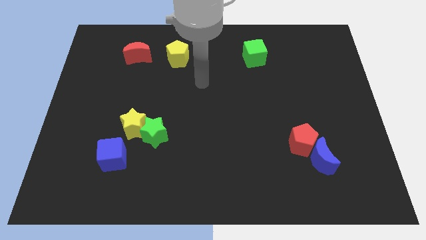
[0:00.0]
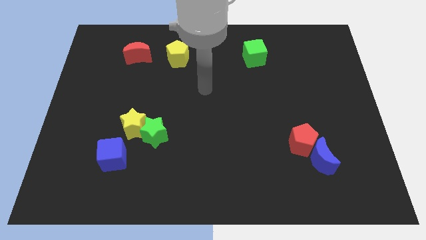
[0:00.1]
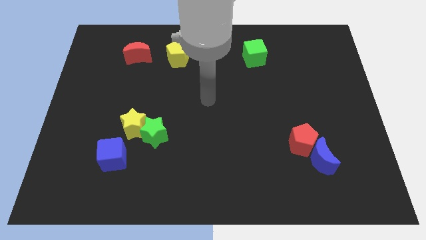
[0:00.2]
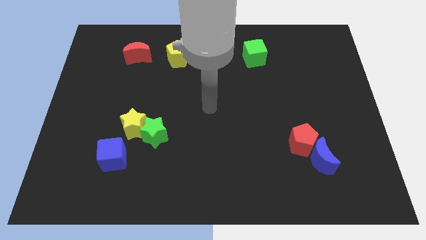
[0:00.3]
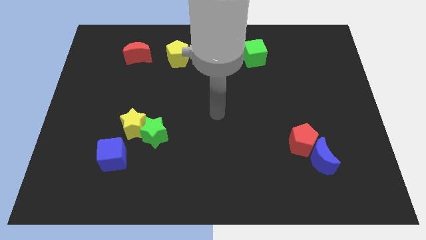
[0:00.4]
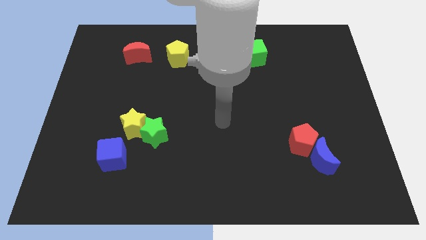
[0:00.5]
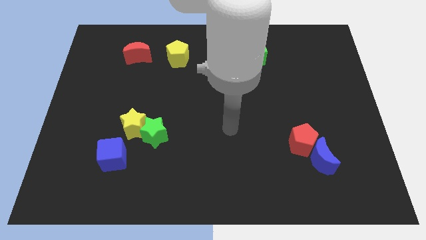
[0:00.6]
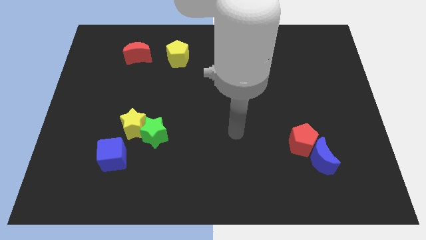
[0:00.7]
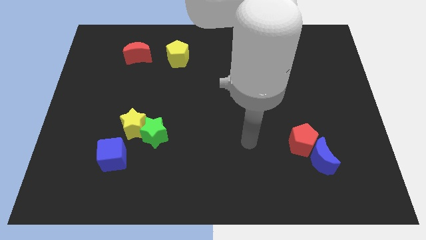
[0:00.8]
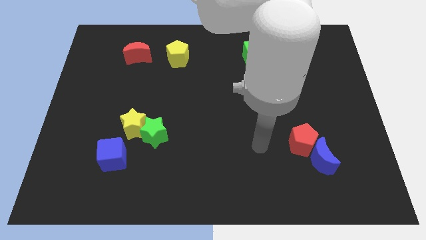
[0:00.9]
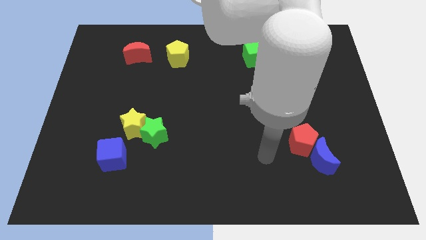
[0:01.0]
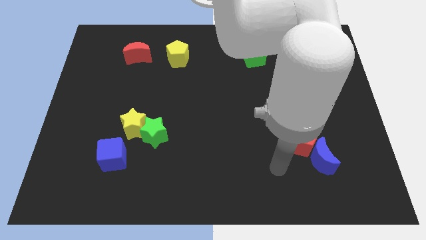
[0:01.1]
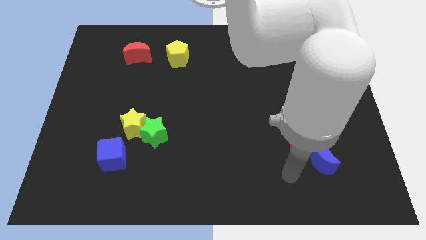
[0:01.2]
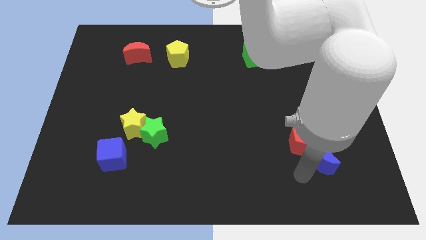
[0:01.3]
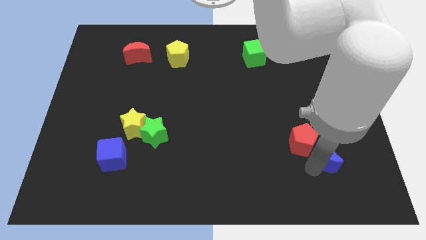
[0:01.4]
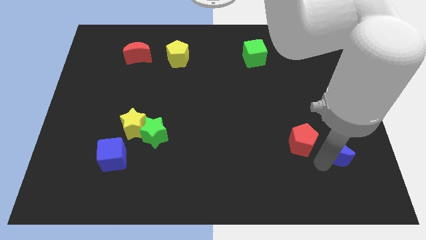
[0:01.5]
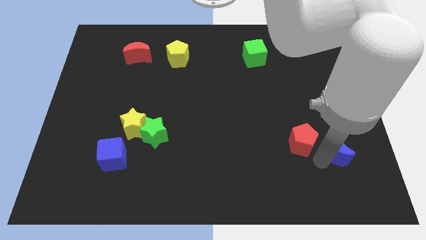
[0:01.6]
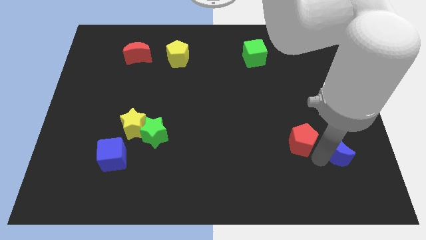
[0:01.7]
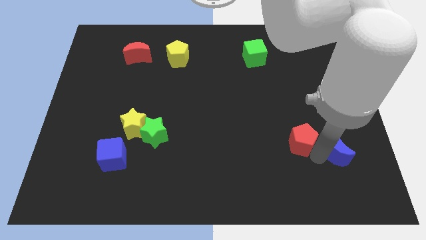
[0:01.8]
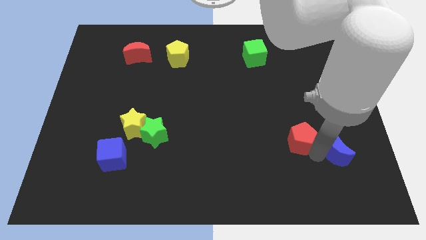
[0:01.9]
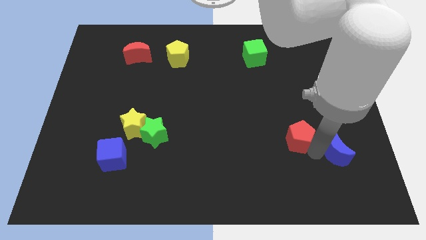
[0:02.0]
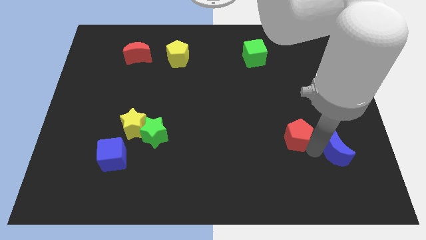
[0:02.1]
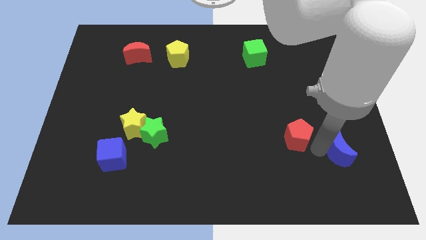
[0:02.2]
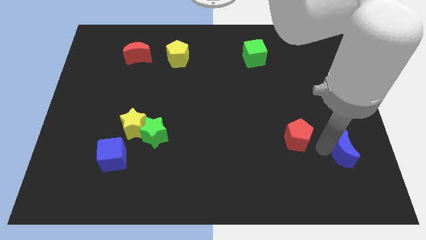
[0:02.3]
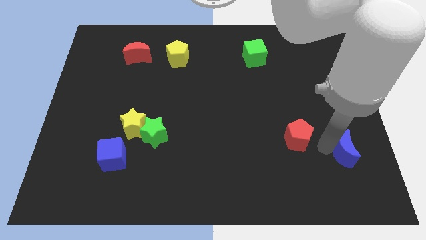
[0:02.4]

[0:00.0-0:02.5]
move the red pentagon away from the blue moon

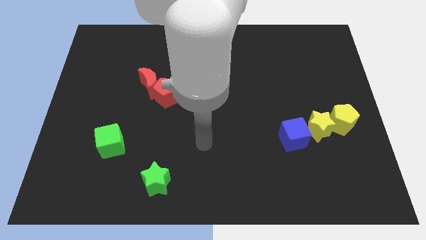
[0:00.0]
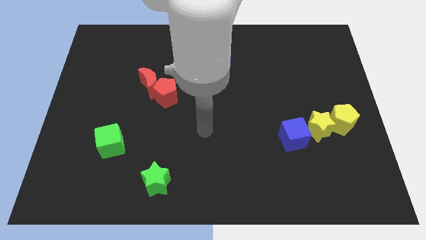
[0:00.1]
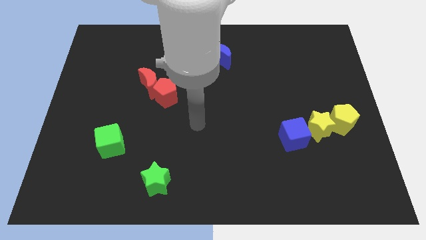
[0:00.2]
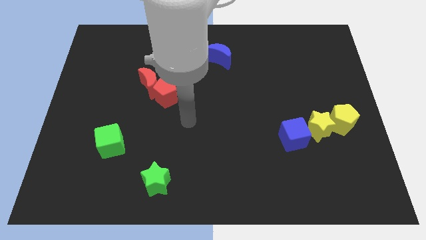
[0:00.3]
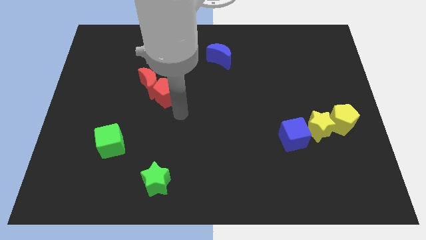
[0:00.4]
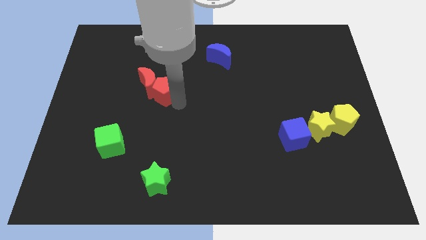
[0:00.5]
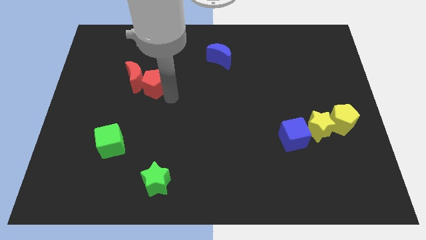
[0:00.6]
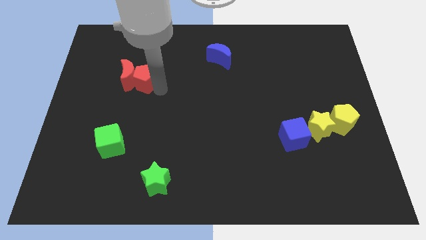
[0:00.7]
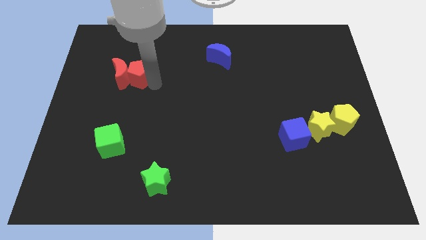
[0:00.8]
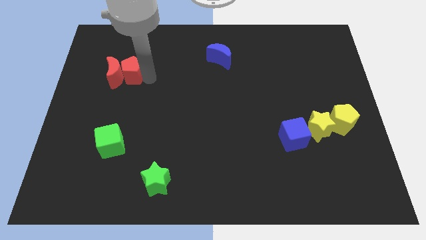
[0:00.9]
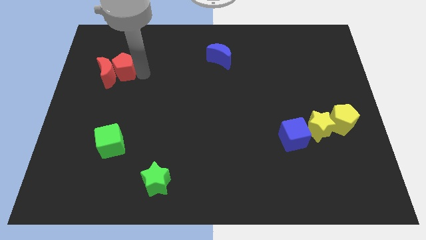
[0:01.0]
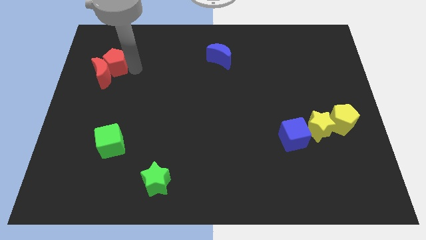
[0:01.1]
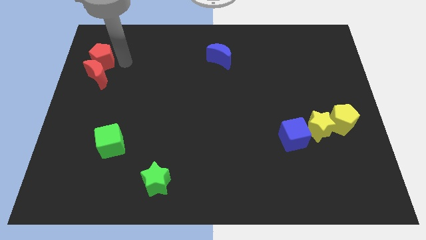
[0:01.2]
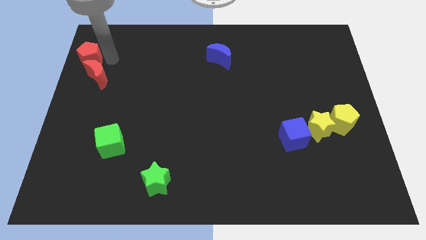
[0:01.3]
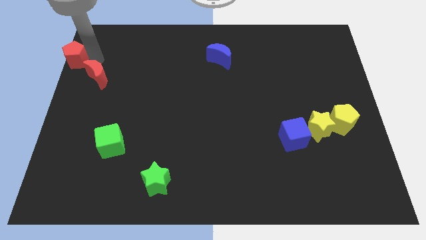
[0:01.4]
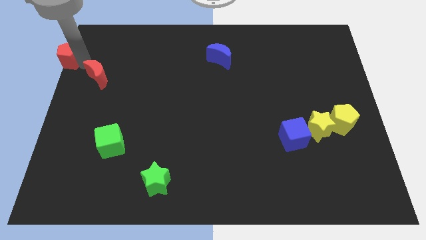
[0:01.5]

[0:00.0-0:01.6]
move the red moon away from the red pentagon

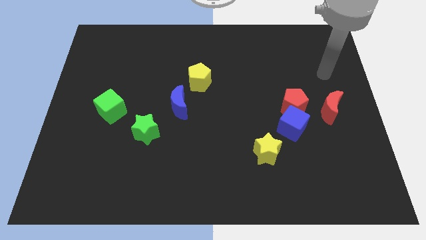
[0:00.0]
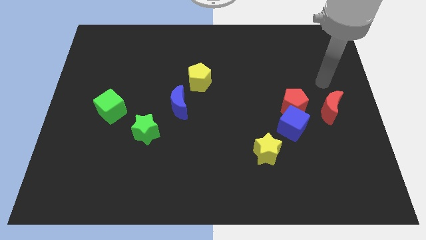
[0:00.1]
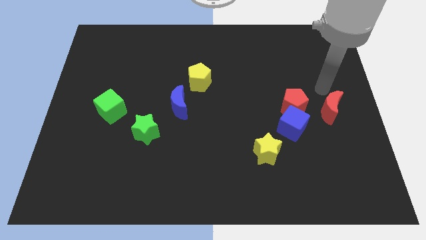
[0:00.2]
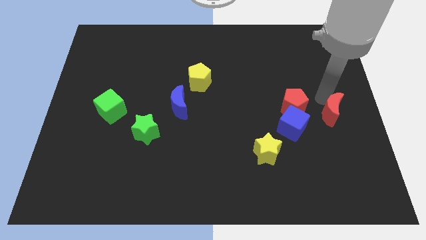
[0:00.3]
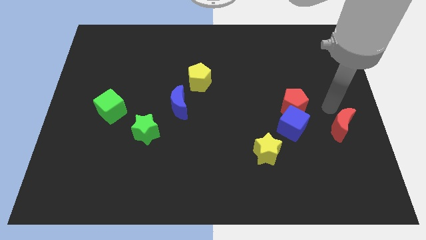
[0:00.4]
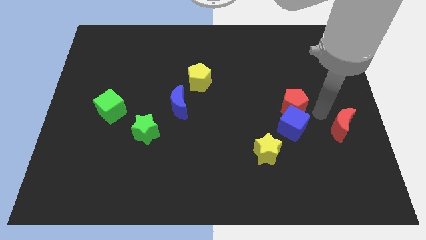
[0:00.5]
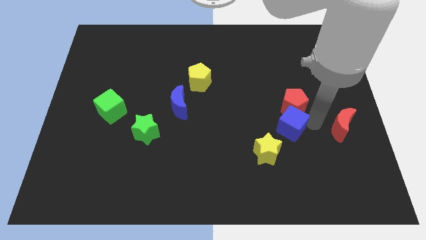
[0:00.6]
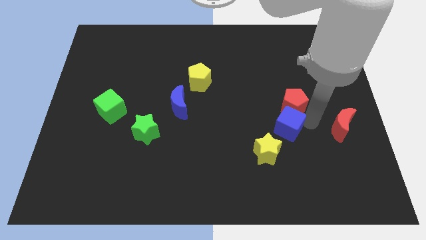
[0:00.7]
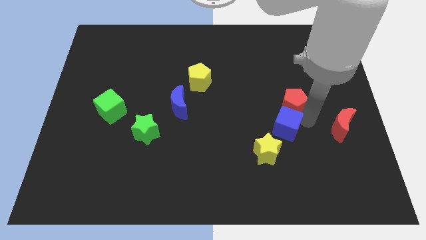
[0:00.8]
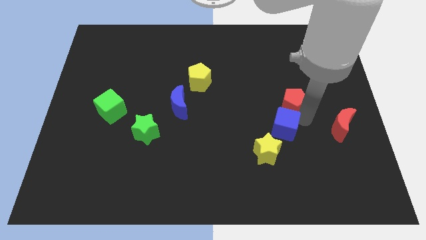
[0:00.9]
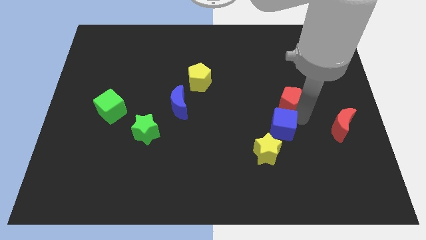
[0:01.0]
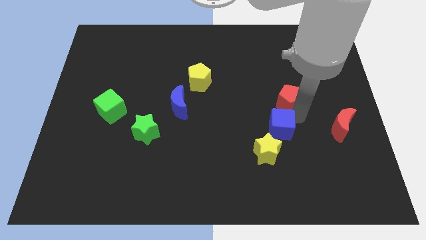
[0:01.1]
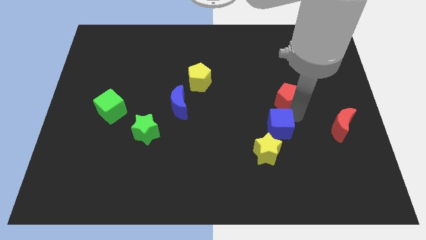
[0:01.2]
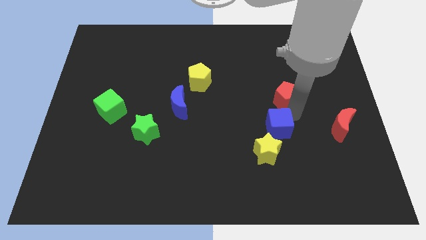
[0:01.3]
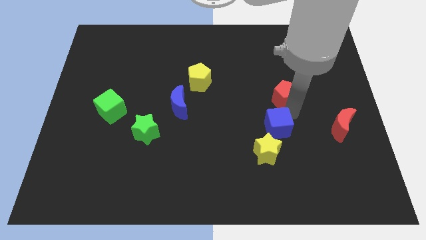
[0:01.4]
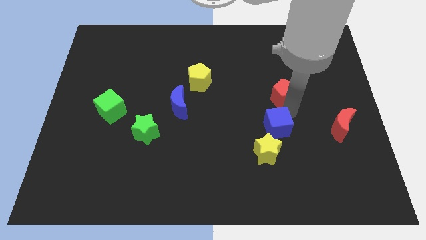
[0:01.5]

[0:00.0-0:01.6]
separate the red pentagon from the blue cube and red moon

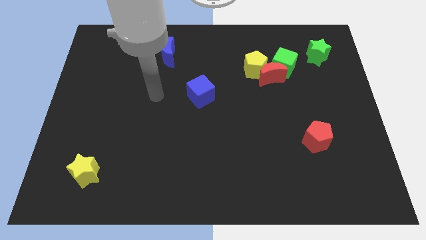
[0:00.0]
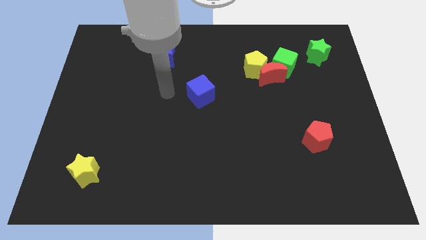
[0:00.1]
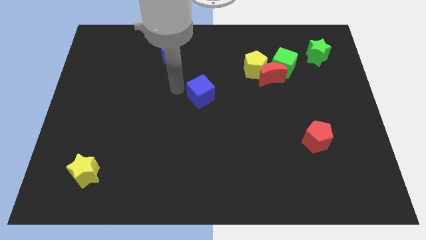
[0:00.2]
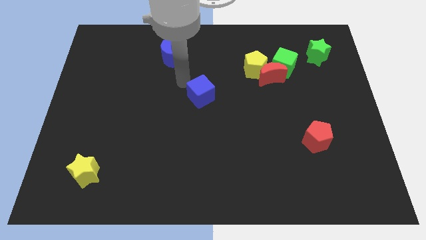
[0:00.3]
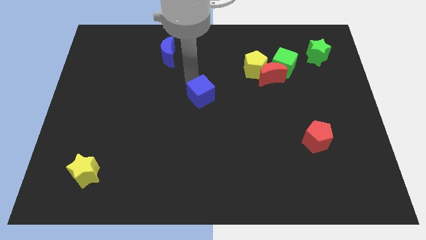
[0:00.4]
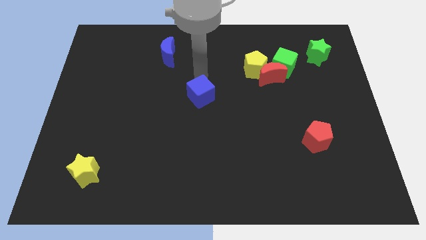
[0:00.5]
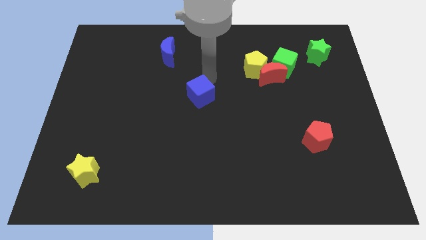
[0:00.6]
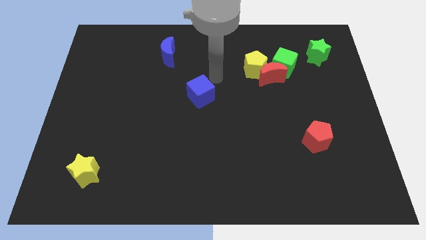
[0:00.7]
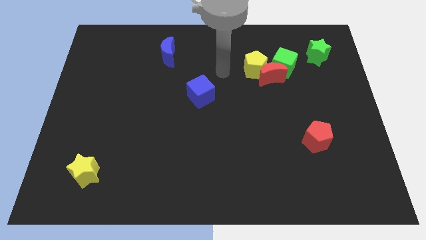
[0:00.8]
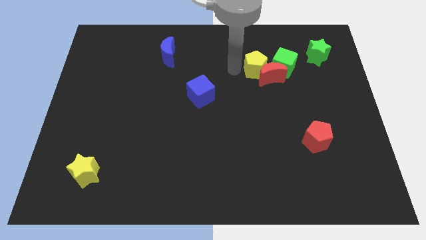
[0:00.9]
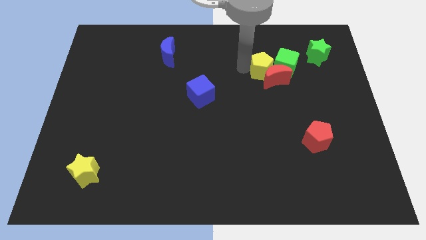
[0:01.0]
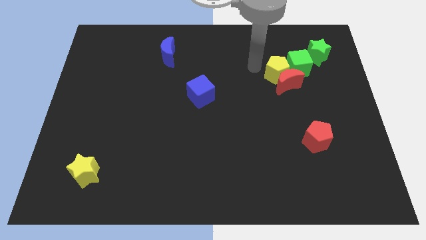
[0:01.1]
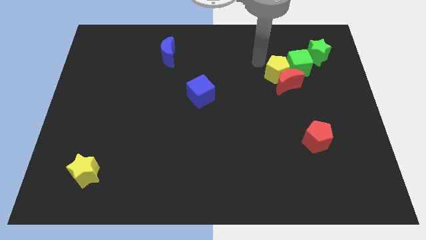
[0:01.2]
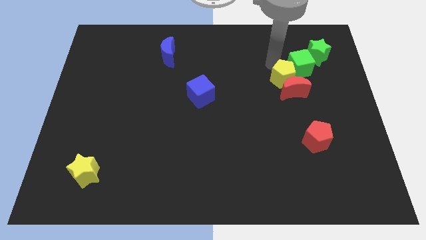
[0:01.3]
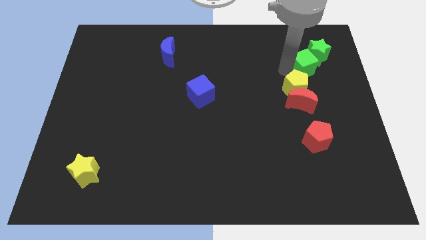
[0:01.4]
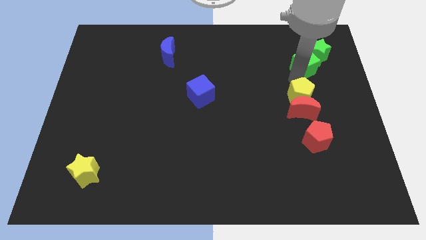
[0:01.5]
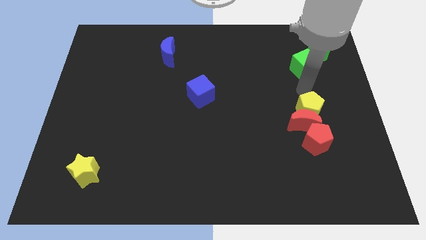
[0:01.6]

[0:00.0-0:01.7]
pull the red moon apart from the yellow pentagon and green cube

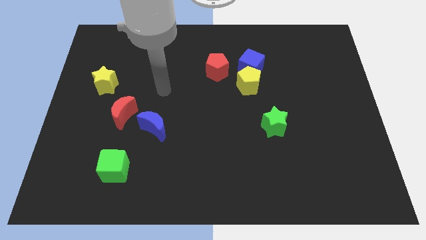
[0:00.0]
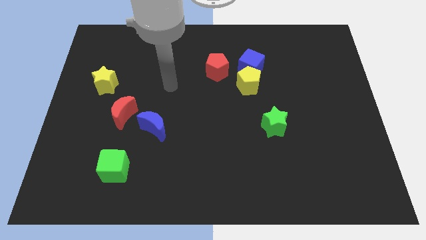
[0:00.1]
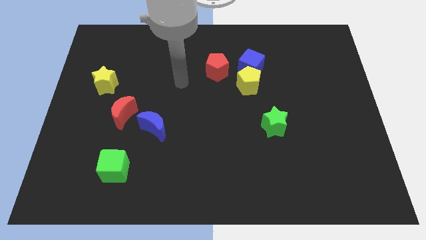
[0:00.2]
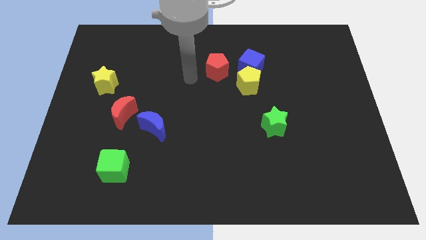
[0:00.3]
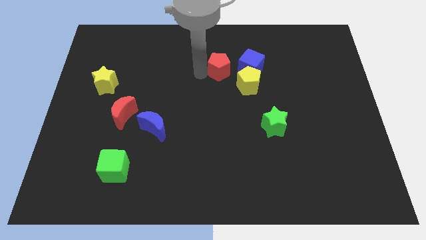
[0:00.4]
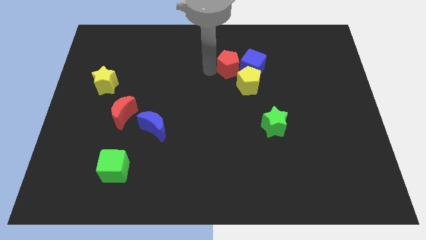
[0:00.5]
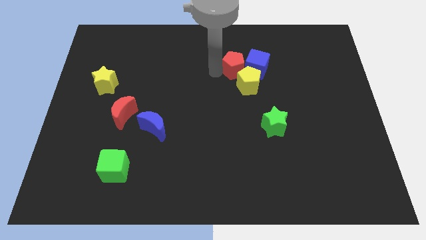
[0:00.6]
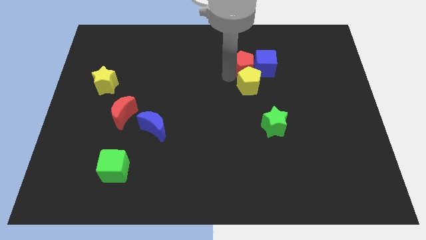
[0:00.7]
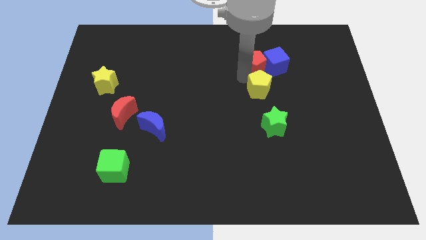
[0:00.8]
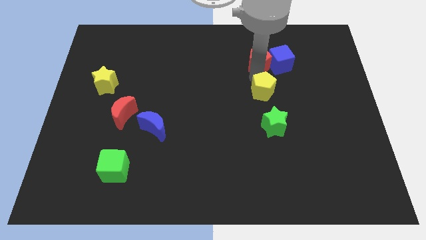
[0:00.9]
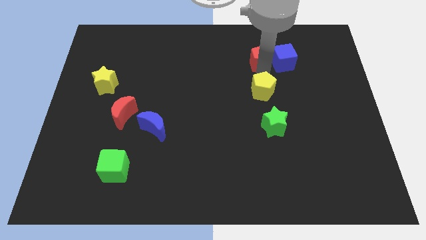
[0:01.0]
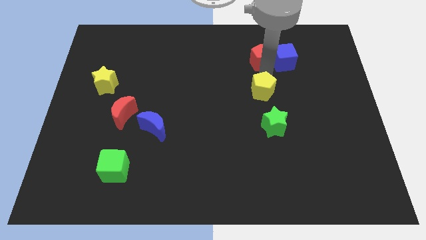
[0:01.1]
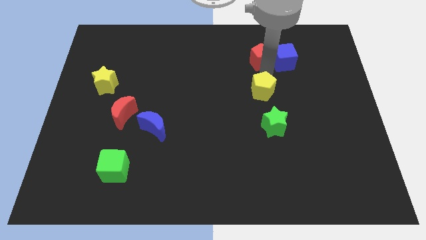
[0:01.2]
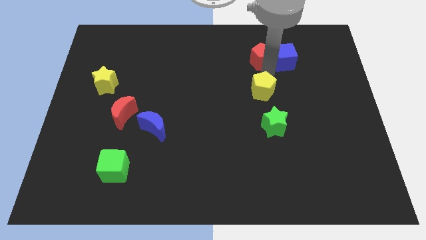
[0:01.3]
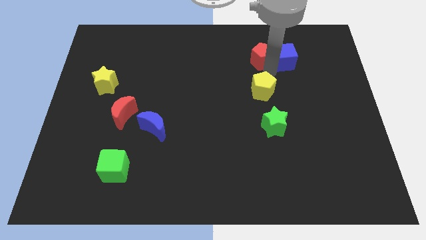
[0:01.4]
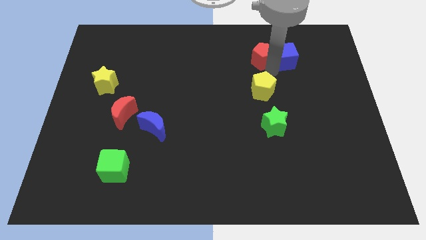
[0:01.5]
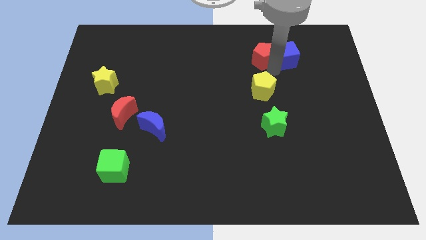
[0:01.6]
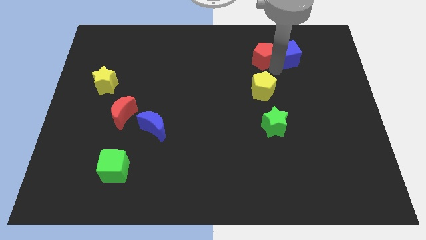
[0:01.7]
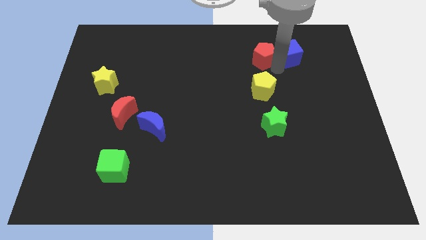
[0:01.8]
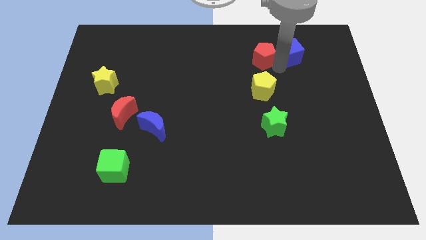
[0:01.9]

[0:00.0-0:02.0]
separate the blue cube from the yellow pentagon and red pentagon
